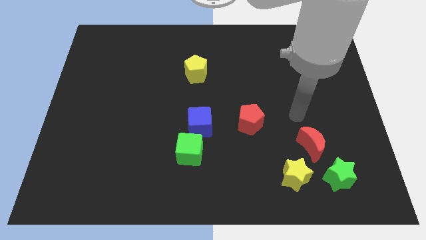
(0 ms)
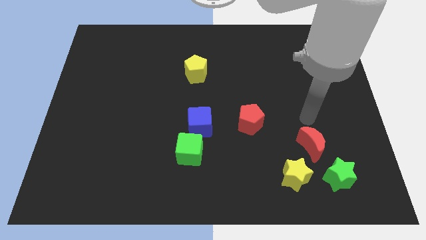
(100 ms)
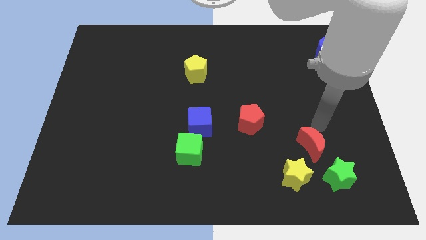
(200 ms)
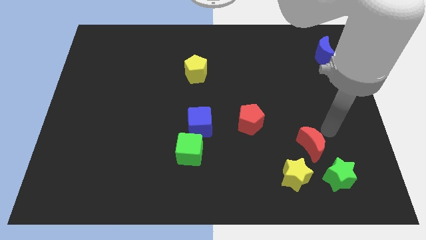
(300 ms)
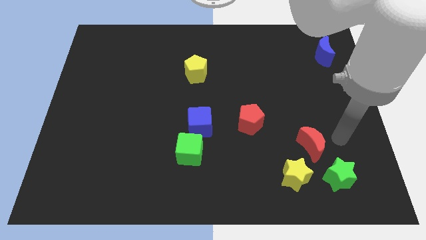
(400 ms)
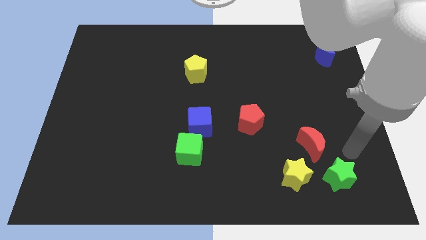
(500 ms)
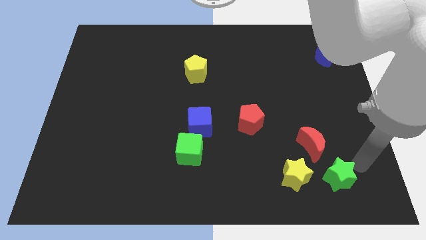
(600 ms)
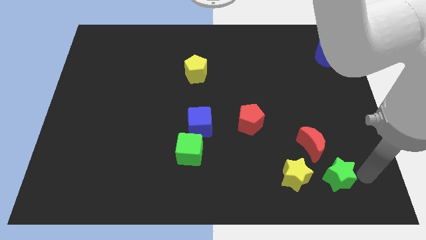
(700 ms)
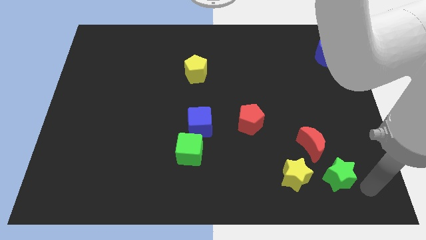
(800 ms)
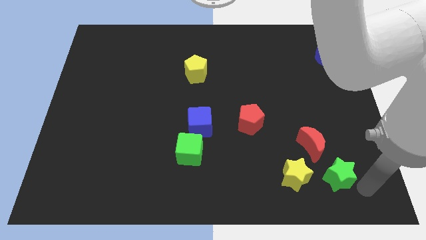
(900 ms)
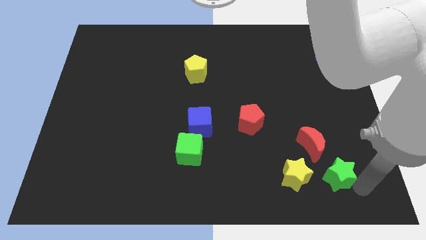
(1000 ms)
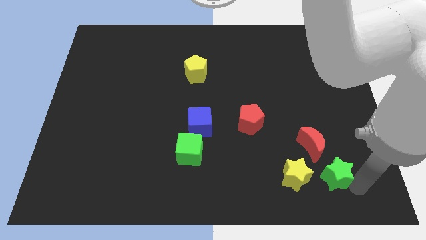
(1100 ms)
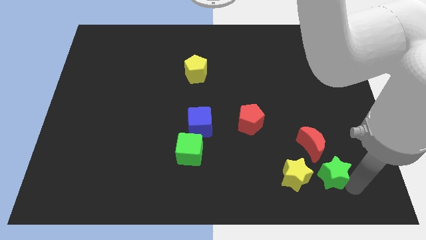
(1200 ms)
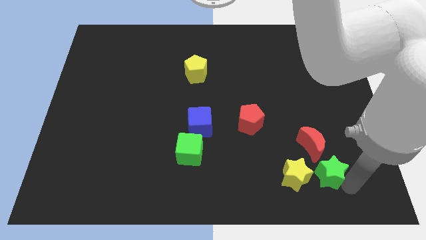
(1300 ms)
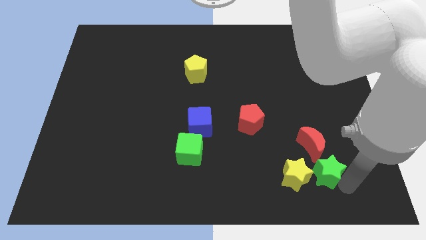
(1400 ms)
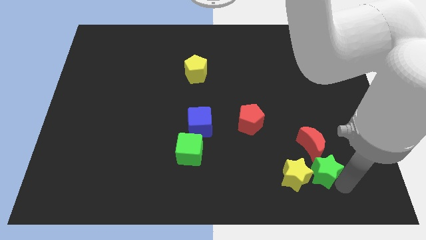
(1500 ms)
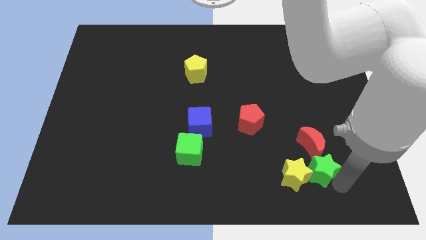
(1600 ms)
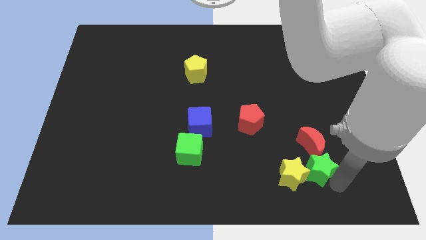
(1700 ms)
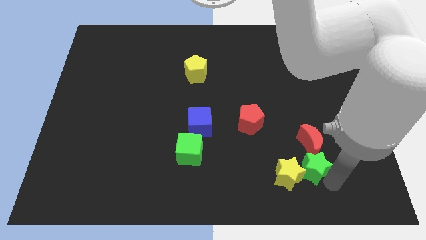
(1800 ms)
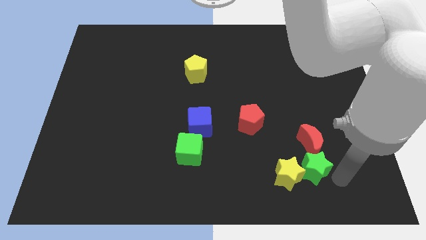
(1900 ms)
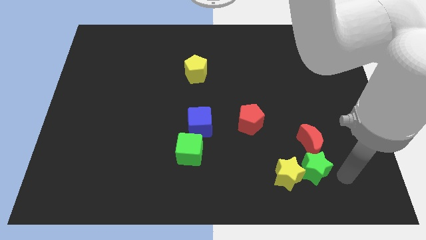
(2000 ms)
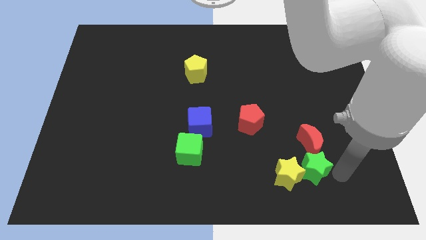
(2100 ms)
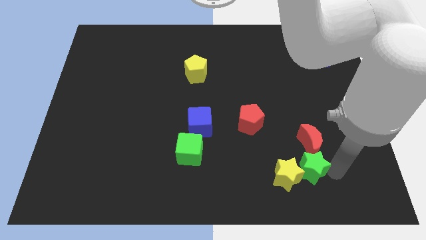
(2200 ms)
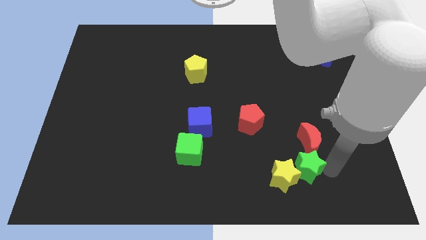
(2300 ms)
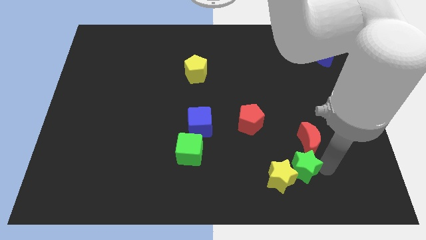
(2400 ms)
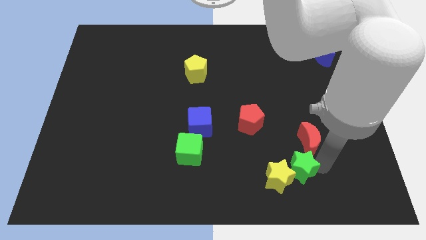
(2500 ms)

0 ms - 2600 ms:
slide the green star slightly left

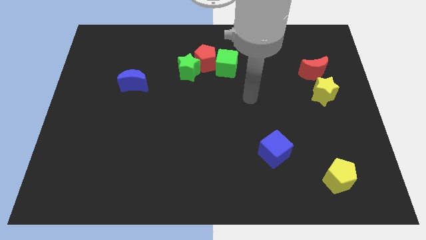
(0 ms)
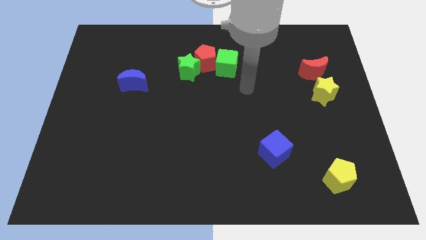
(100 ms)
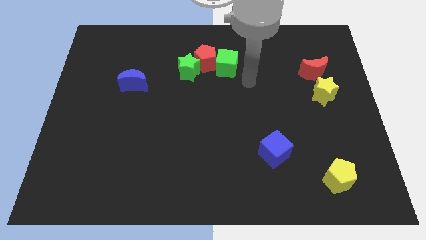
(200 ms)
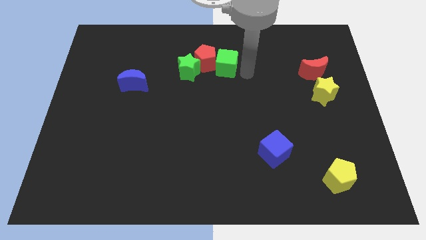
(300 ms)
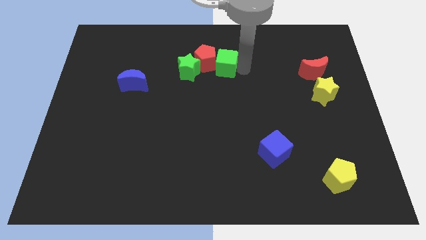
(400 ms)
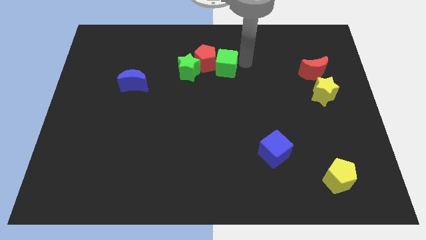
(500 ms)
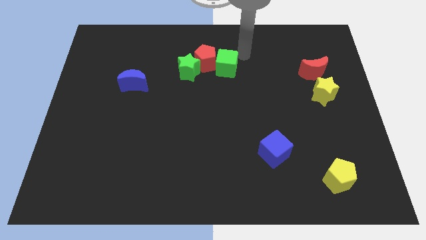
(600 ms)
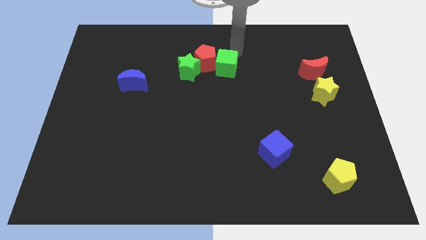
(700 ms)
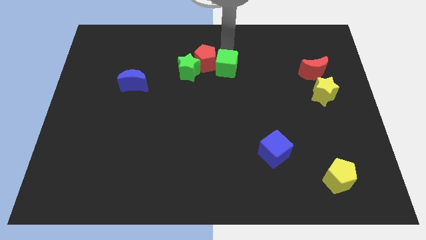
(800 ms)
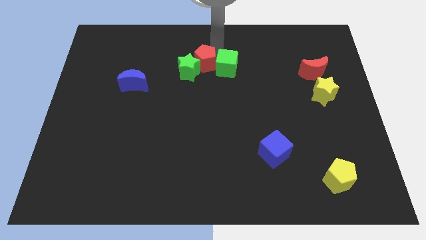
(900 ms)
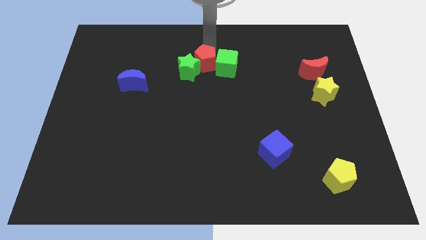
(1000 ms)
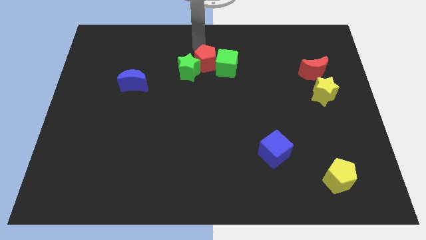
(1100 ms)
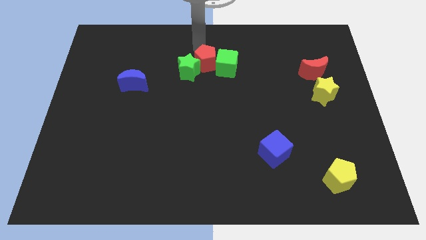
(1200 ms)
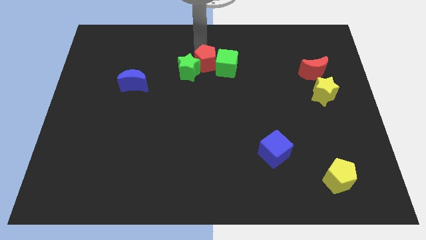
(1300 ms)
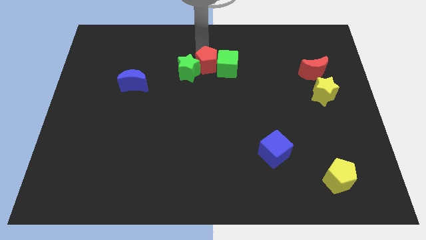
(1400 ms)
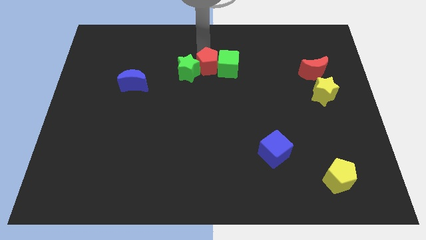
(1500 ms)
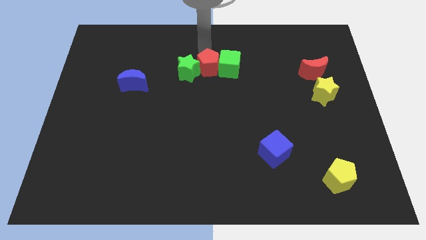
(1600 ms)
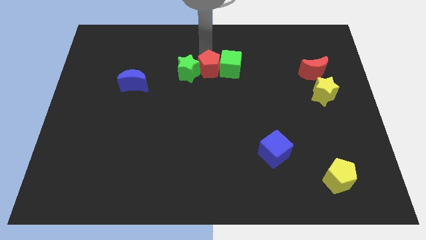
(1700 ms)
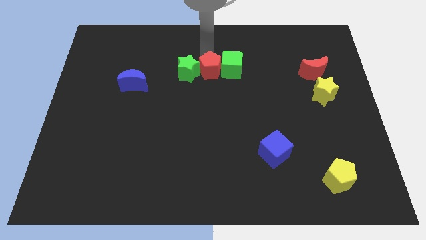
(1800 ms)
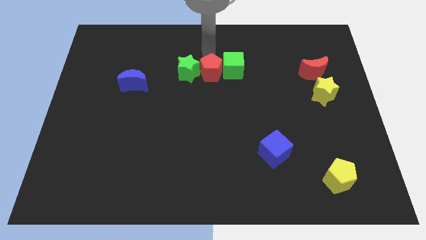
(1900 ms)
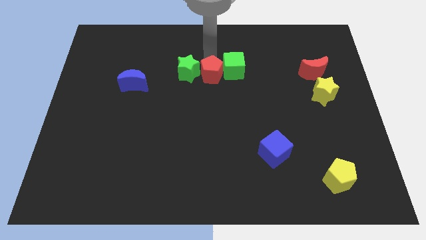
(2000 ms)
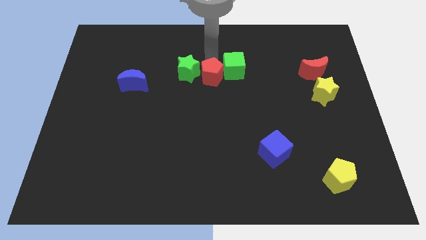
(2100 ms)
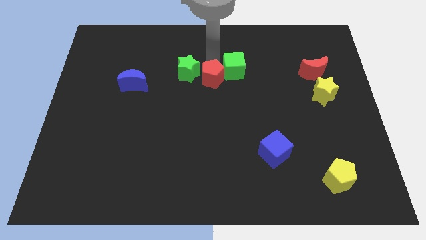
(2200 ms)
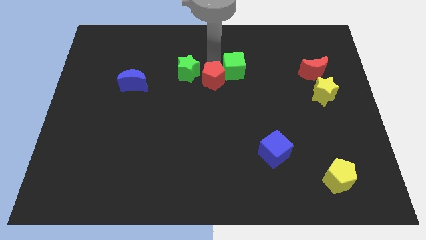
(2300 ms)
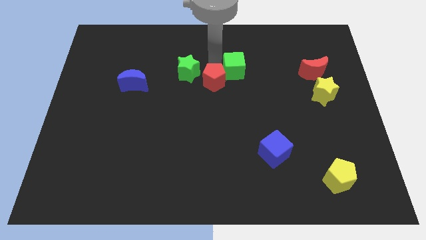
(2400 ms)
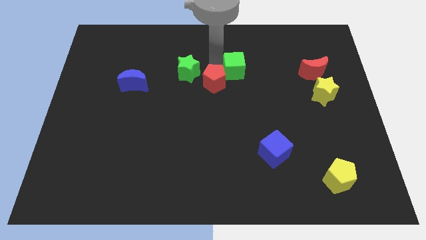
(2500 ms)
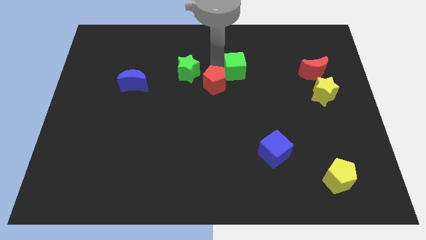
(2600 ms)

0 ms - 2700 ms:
push the red pentagon somewhat down

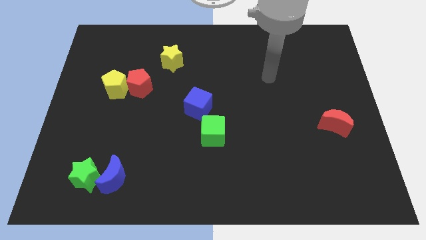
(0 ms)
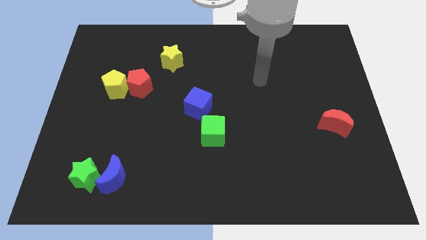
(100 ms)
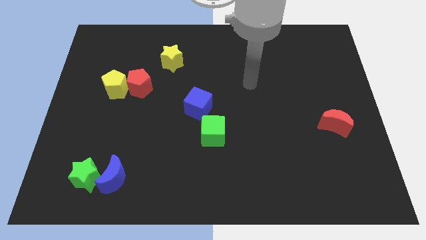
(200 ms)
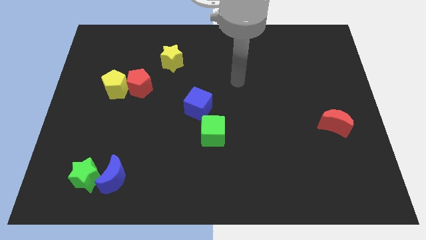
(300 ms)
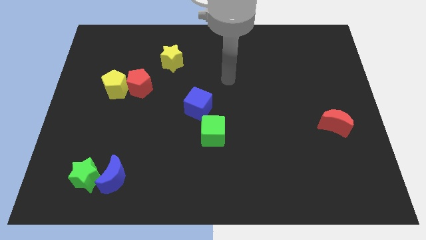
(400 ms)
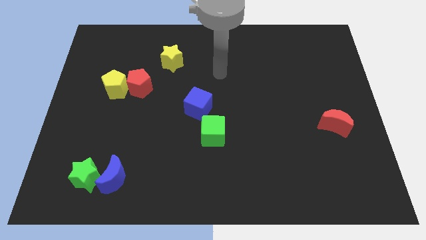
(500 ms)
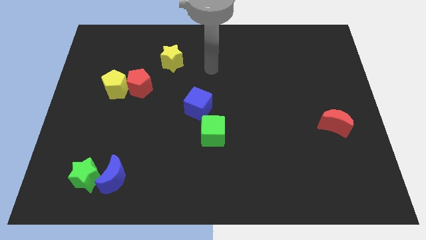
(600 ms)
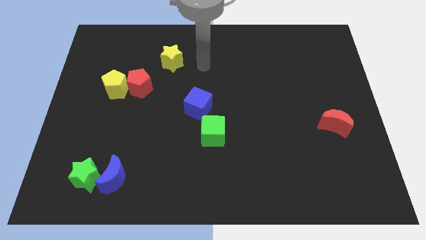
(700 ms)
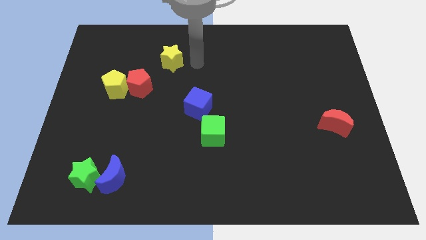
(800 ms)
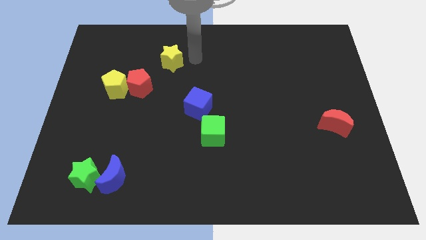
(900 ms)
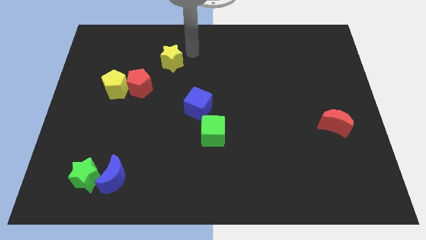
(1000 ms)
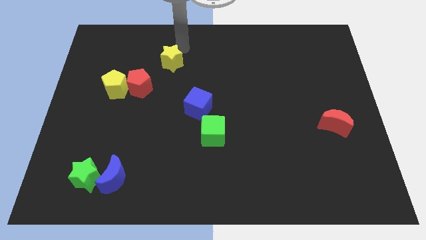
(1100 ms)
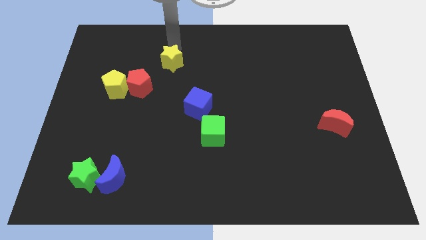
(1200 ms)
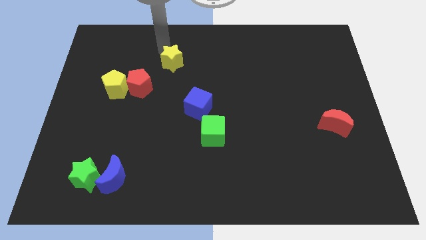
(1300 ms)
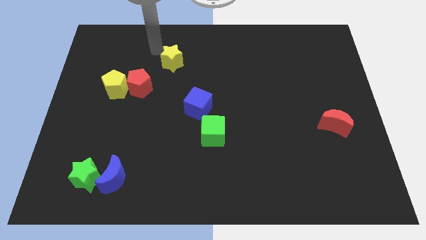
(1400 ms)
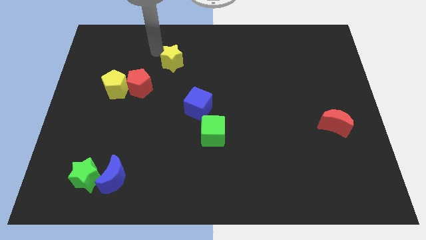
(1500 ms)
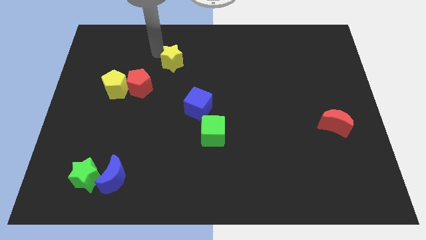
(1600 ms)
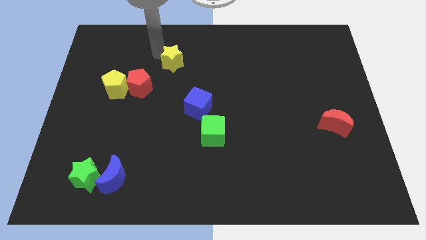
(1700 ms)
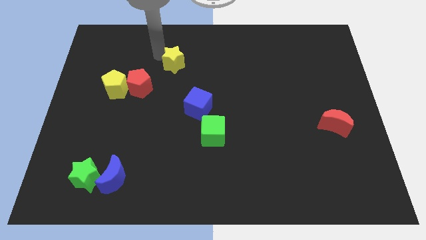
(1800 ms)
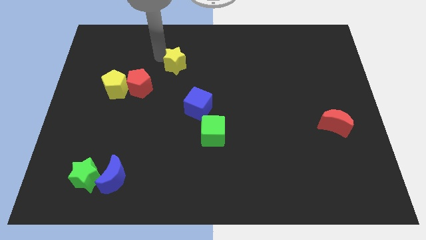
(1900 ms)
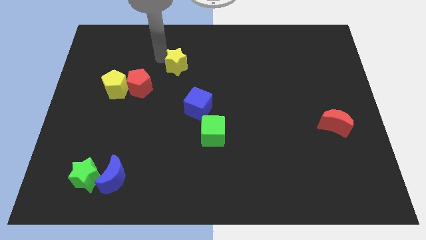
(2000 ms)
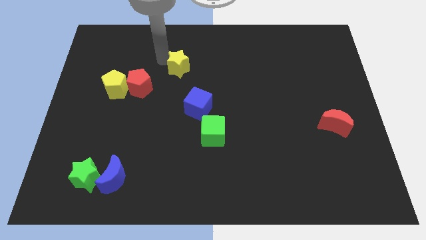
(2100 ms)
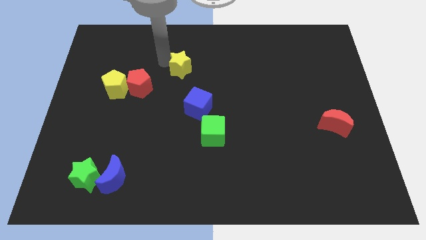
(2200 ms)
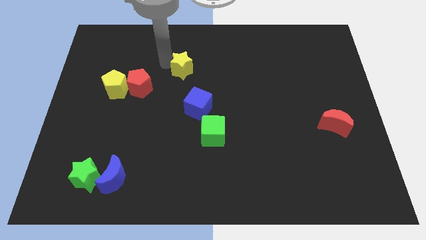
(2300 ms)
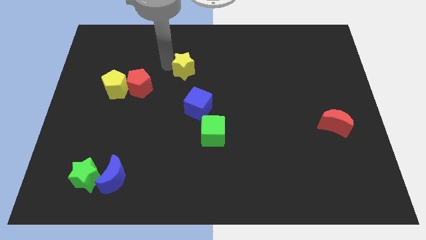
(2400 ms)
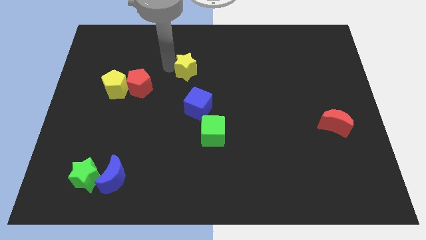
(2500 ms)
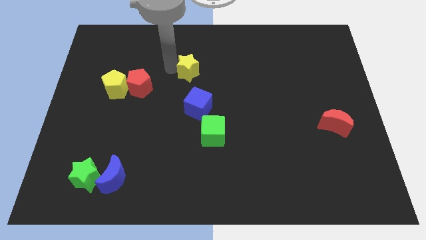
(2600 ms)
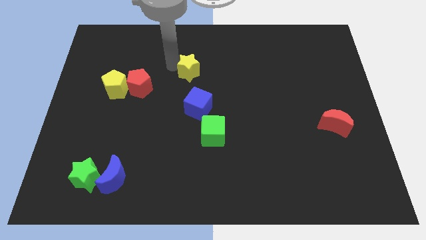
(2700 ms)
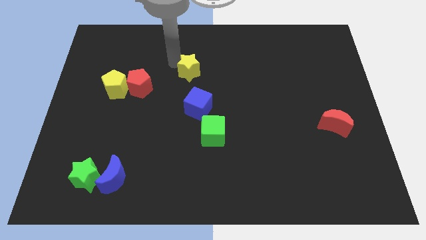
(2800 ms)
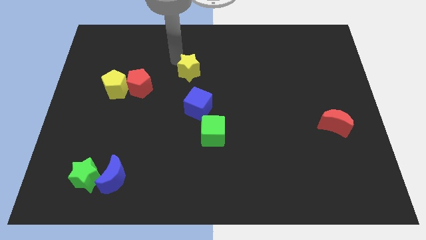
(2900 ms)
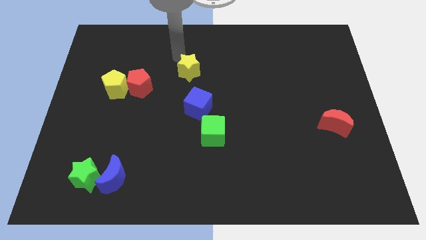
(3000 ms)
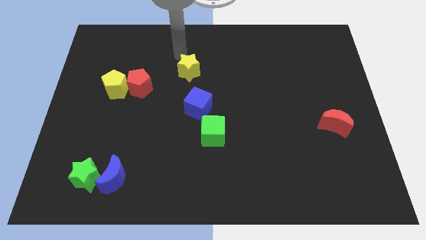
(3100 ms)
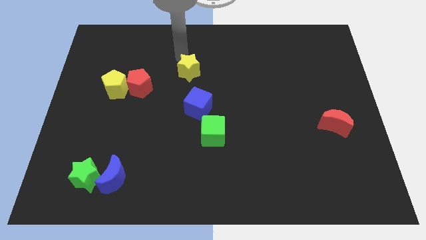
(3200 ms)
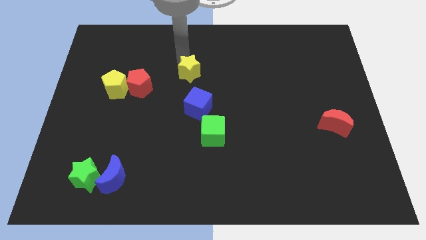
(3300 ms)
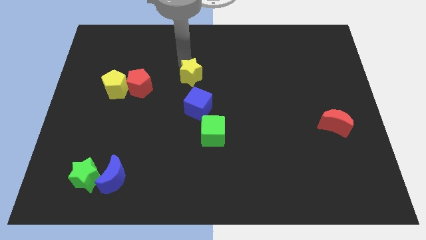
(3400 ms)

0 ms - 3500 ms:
push the yellow star down and then right a bit
